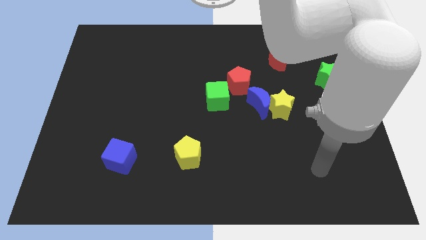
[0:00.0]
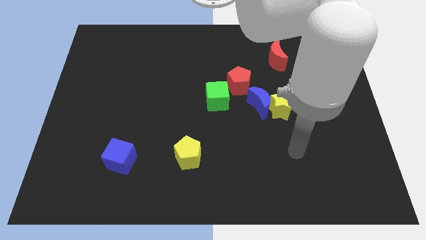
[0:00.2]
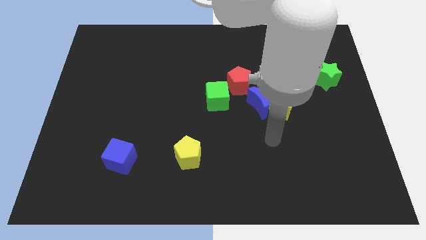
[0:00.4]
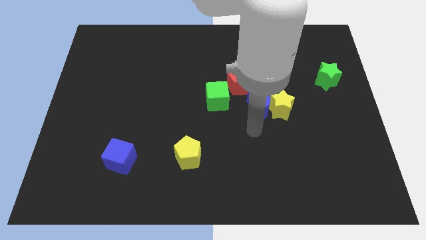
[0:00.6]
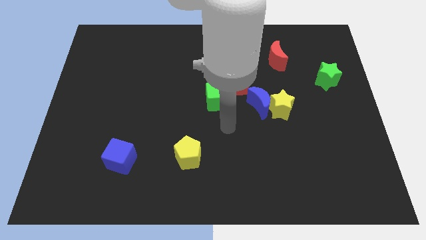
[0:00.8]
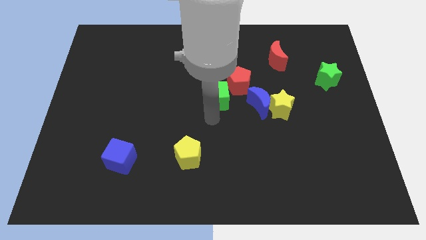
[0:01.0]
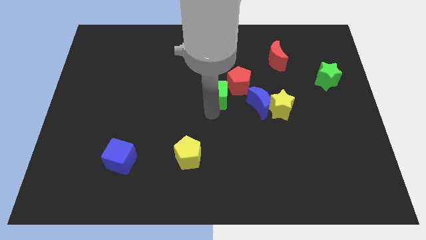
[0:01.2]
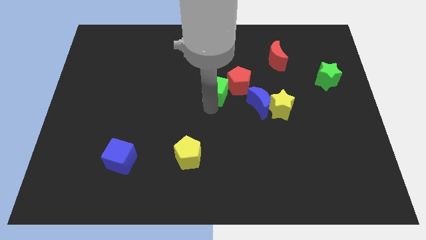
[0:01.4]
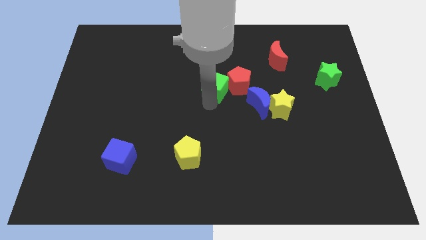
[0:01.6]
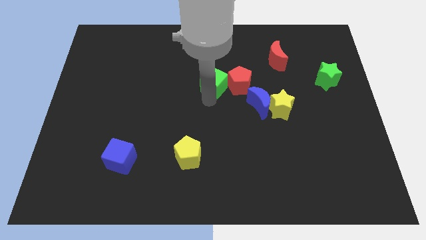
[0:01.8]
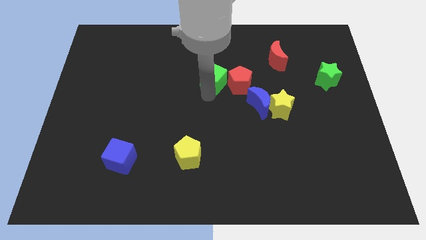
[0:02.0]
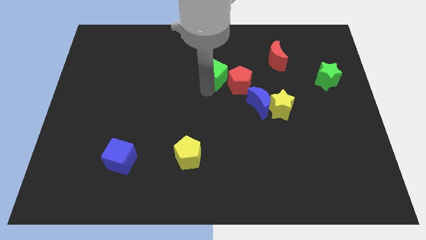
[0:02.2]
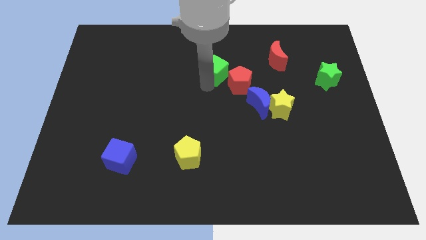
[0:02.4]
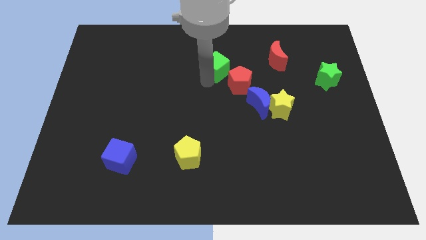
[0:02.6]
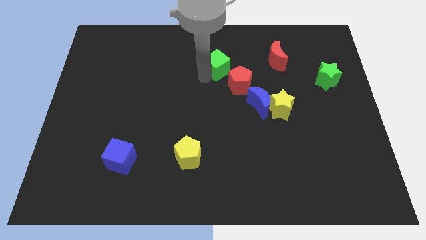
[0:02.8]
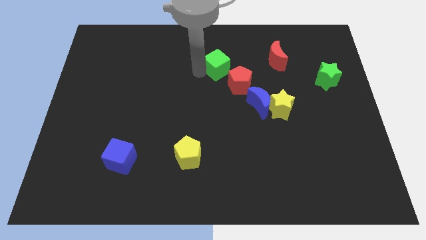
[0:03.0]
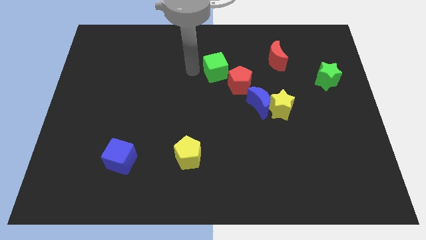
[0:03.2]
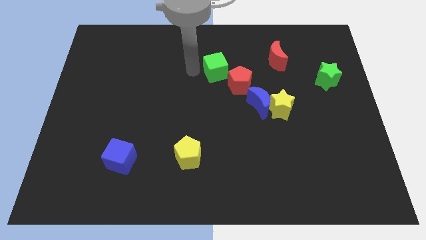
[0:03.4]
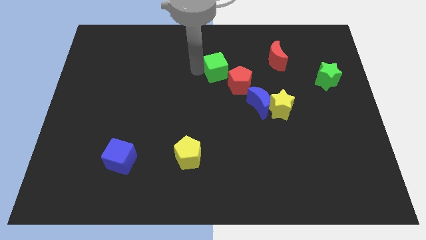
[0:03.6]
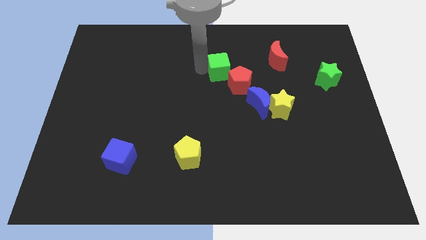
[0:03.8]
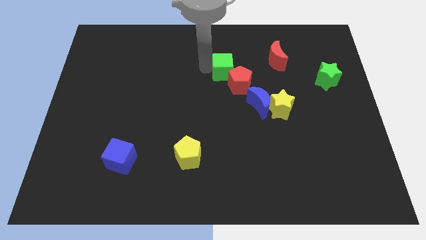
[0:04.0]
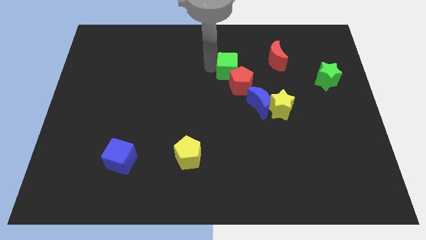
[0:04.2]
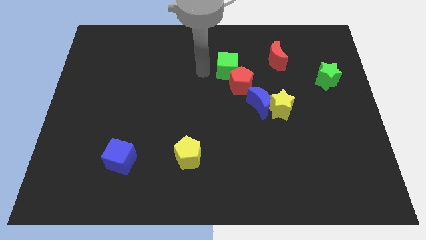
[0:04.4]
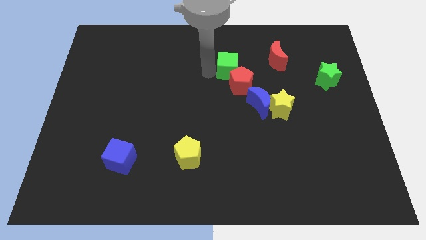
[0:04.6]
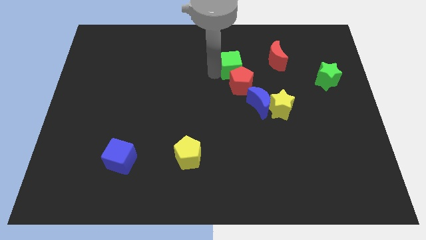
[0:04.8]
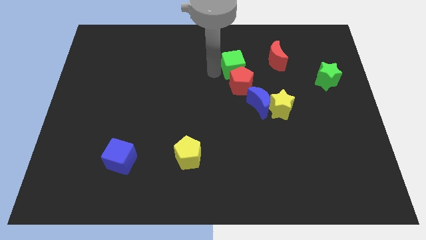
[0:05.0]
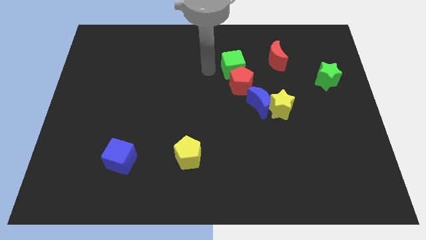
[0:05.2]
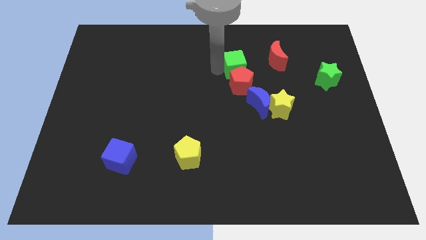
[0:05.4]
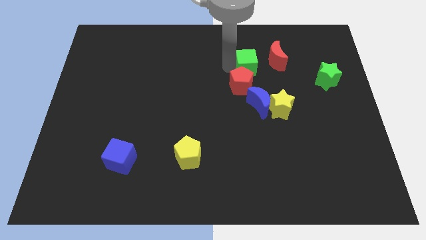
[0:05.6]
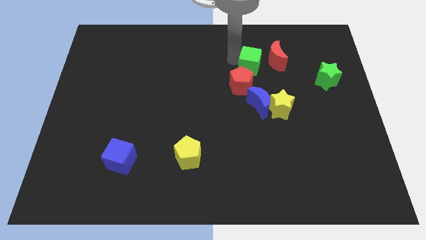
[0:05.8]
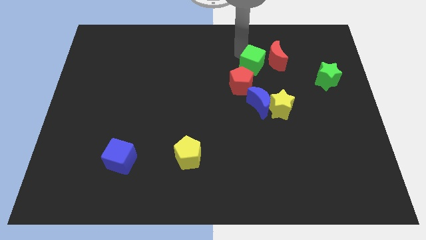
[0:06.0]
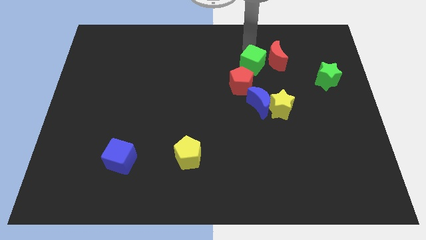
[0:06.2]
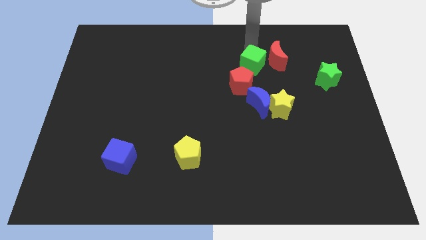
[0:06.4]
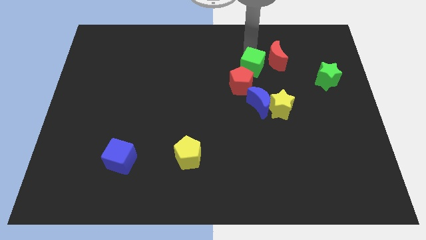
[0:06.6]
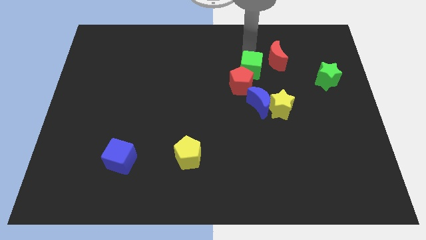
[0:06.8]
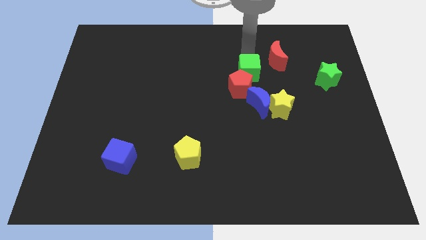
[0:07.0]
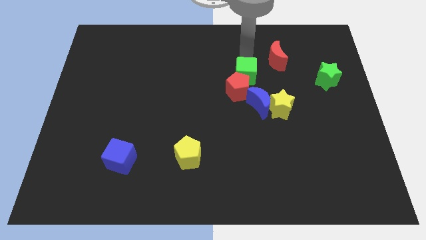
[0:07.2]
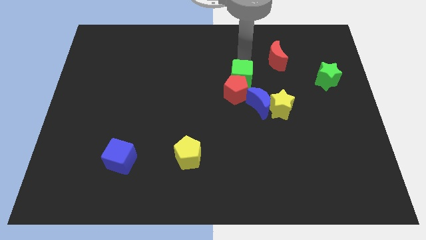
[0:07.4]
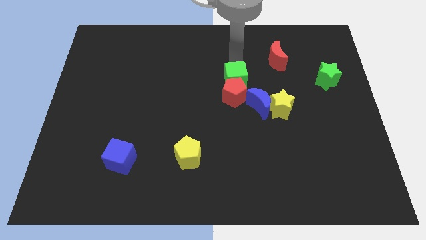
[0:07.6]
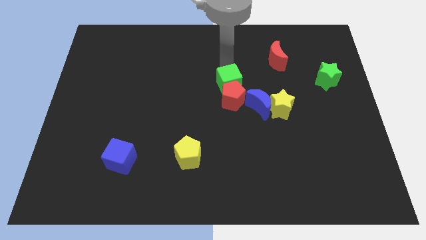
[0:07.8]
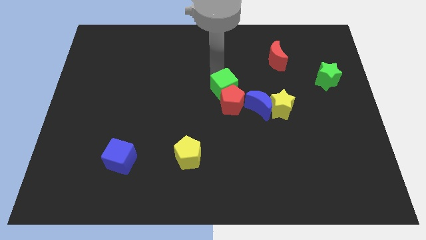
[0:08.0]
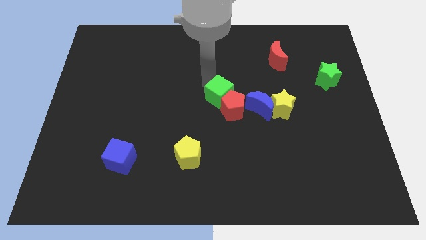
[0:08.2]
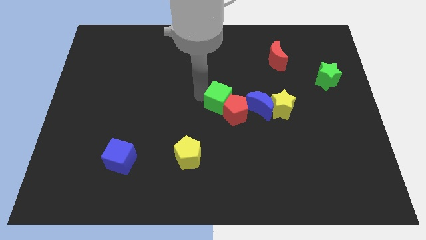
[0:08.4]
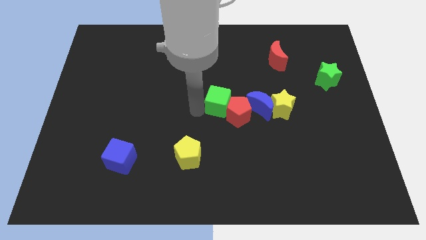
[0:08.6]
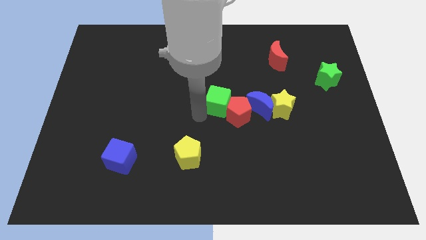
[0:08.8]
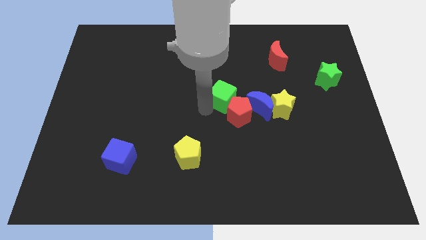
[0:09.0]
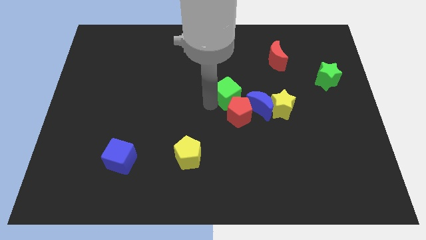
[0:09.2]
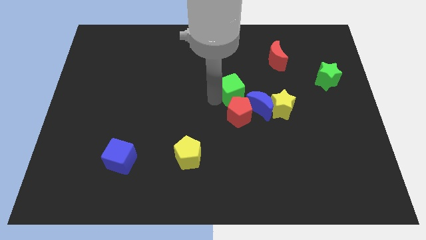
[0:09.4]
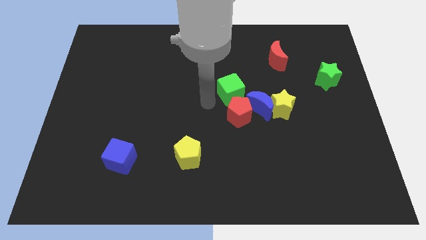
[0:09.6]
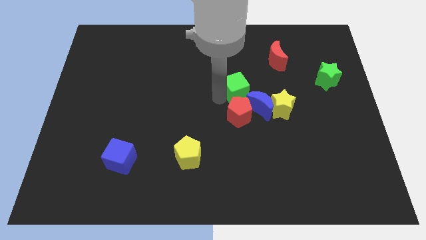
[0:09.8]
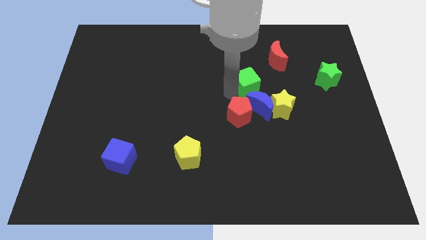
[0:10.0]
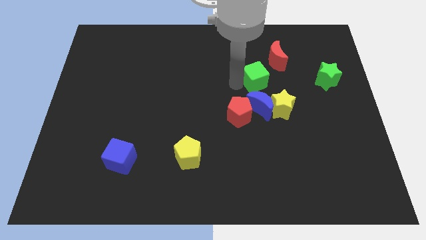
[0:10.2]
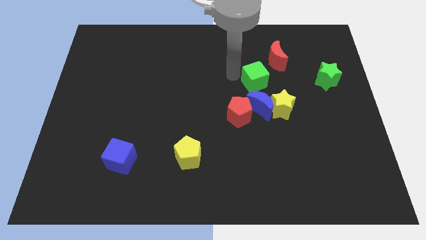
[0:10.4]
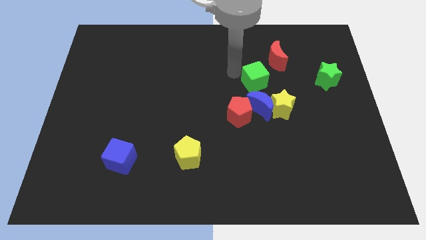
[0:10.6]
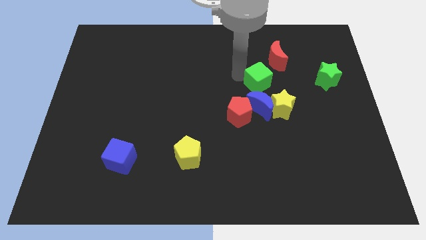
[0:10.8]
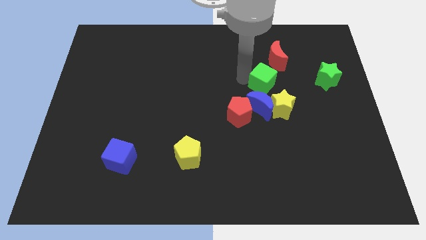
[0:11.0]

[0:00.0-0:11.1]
put the green cube to the top right side of the blue moon

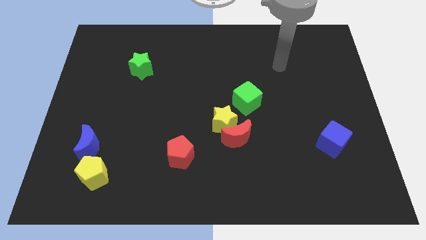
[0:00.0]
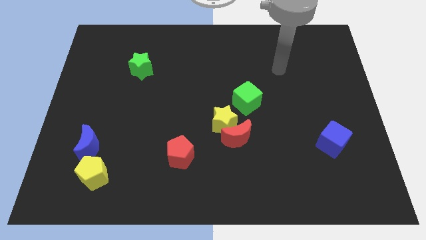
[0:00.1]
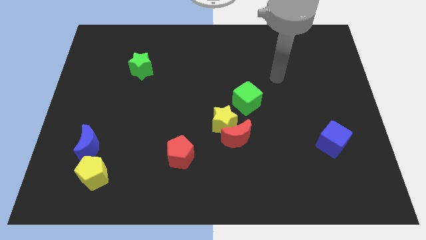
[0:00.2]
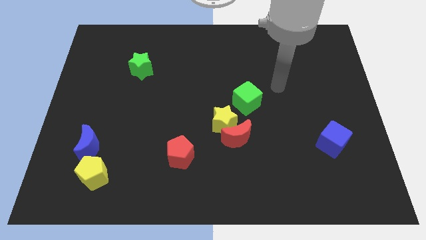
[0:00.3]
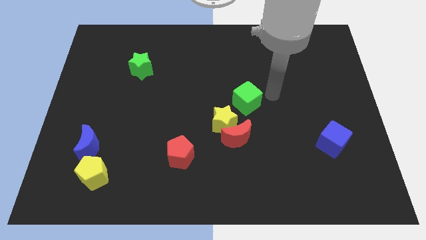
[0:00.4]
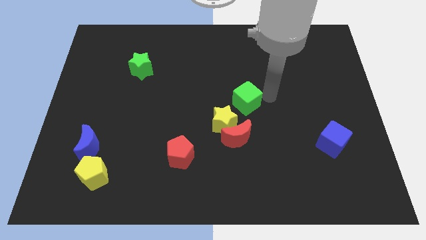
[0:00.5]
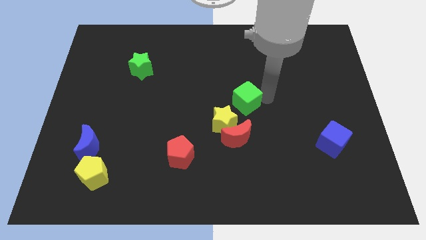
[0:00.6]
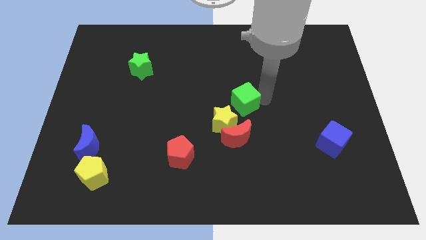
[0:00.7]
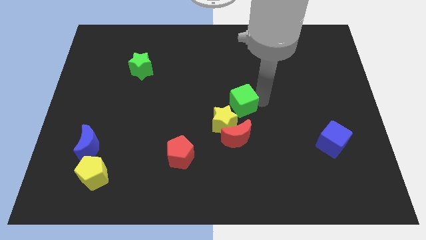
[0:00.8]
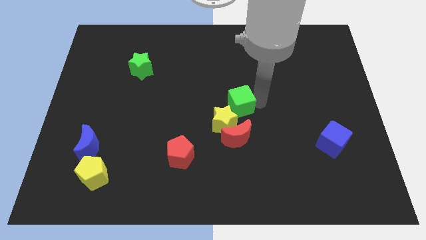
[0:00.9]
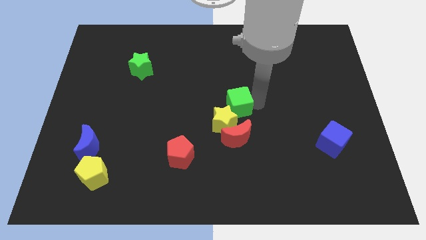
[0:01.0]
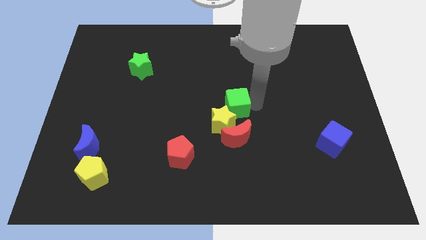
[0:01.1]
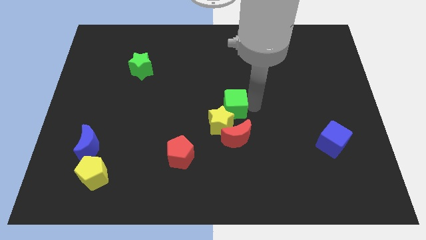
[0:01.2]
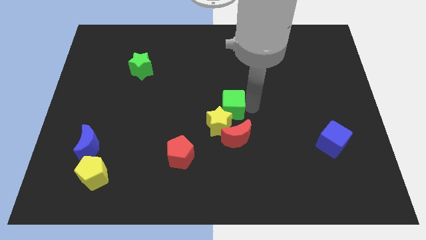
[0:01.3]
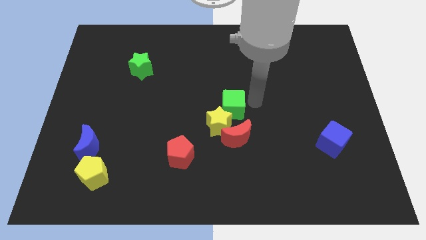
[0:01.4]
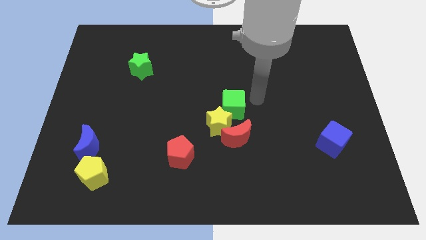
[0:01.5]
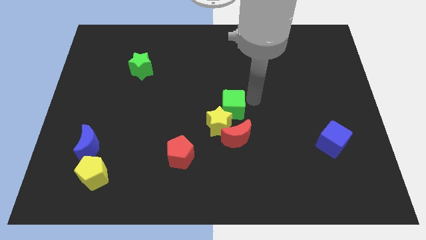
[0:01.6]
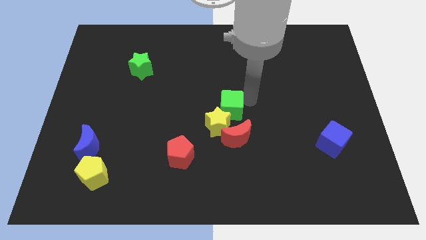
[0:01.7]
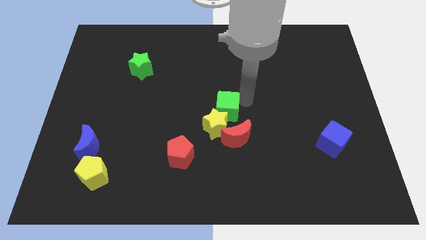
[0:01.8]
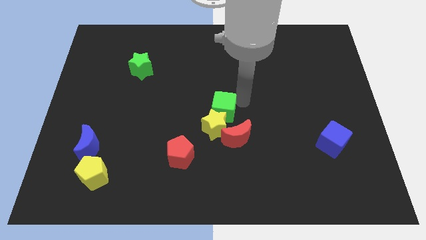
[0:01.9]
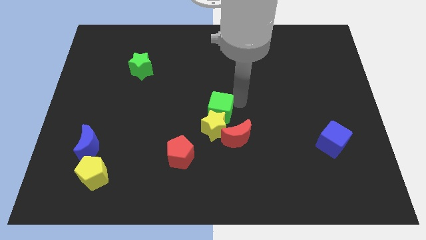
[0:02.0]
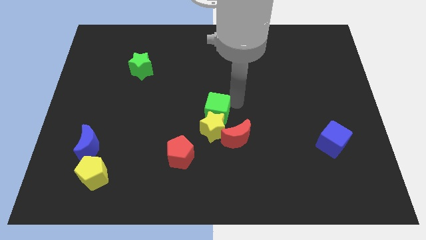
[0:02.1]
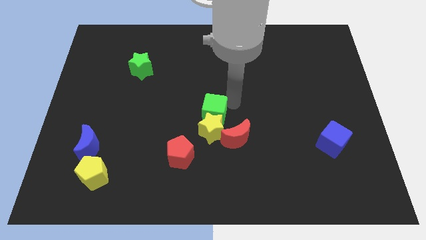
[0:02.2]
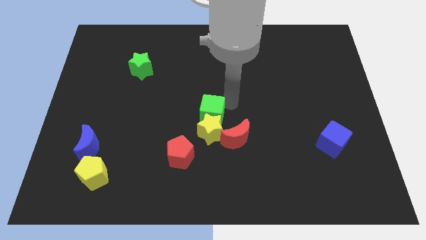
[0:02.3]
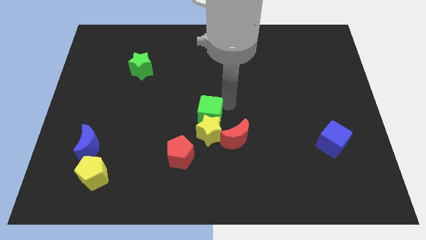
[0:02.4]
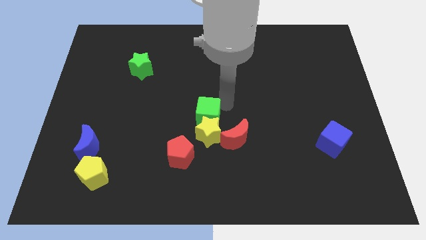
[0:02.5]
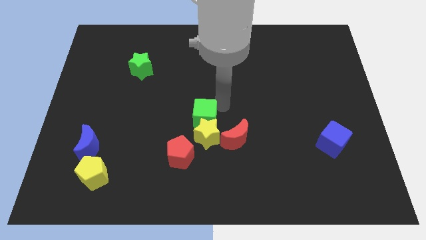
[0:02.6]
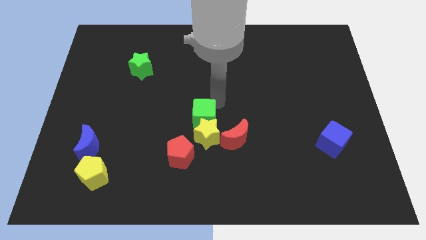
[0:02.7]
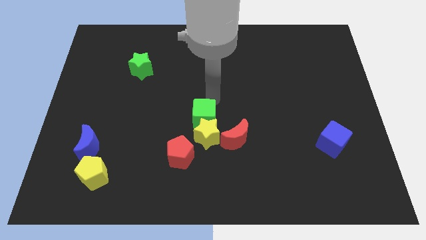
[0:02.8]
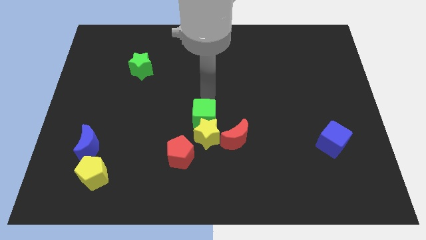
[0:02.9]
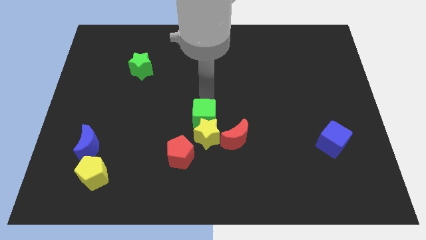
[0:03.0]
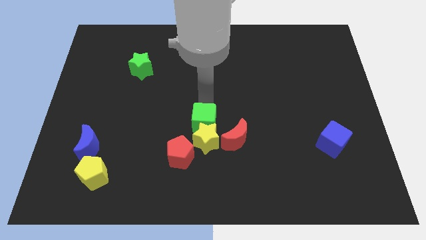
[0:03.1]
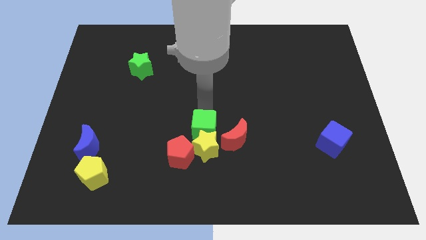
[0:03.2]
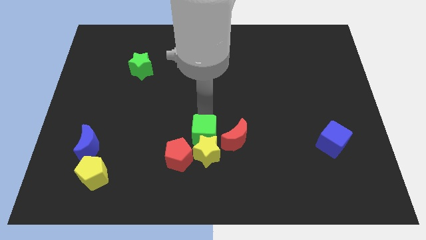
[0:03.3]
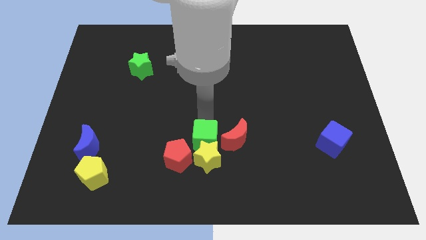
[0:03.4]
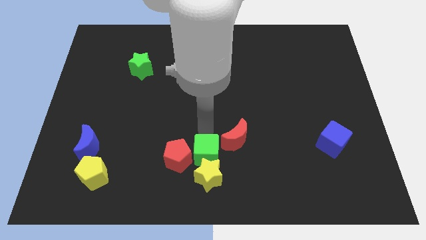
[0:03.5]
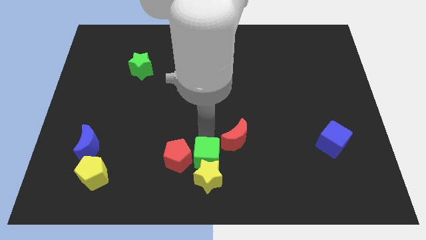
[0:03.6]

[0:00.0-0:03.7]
move the green cube diagonally down and to the right of the red pentagon
